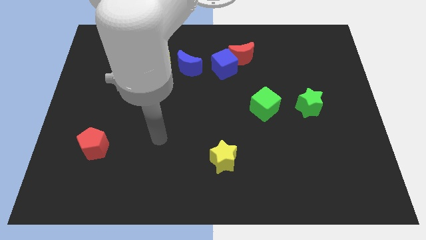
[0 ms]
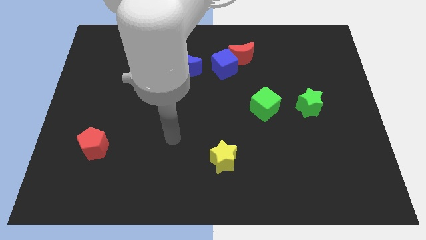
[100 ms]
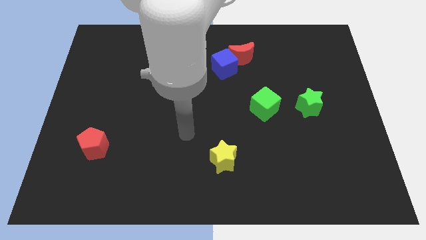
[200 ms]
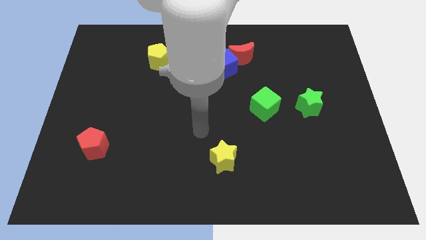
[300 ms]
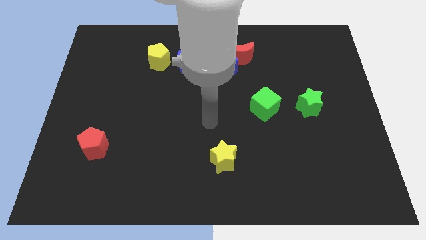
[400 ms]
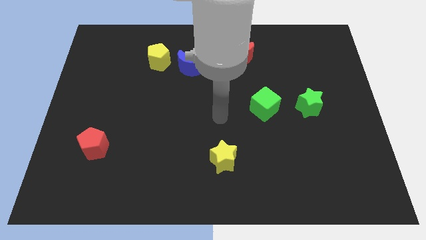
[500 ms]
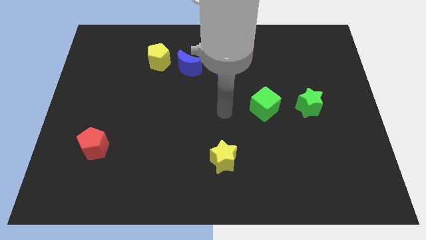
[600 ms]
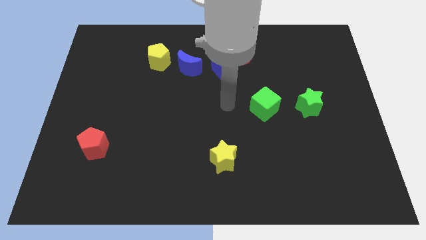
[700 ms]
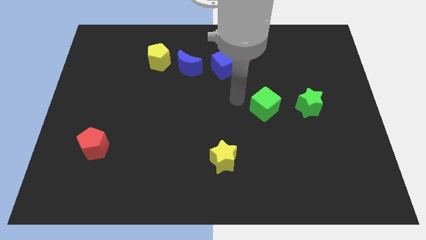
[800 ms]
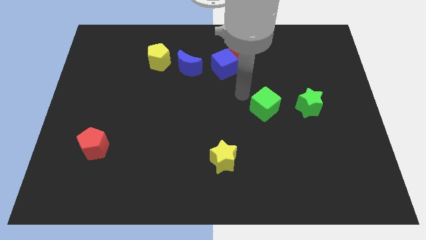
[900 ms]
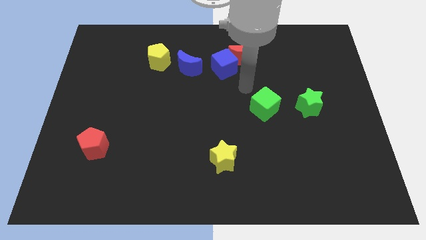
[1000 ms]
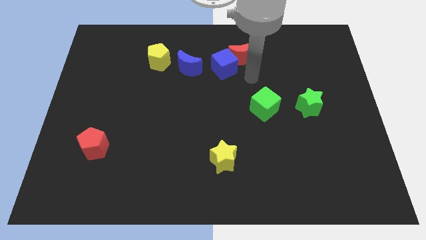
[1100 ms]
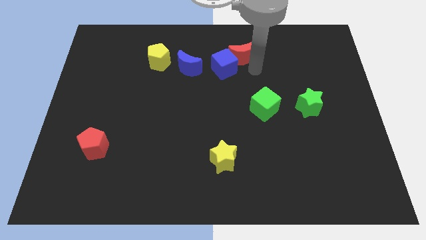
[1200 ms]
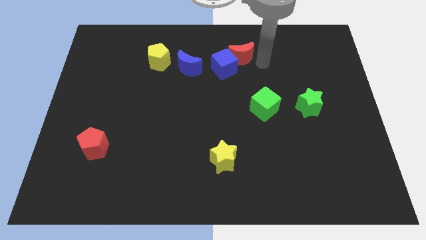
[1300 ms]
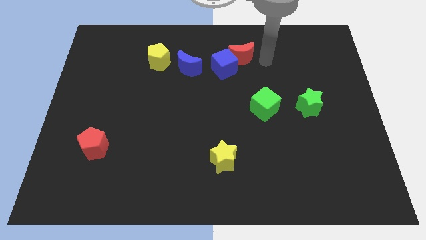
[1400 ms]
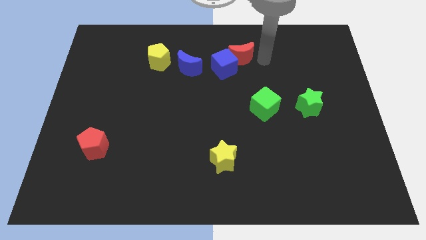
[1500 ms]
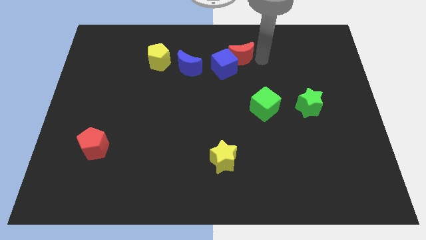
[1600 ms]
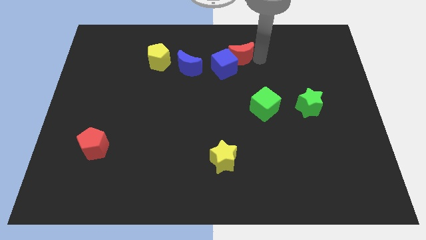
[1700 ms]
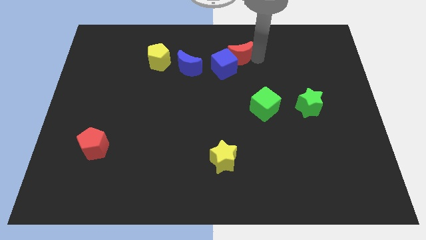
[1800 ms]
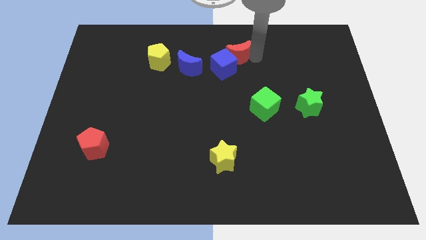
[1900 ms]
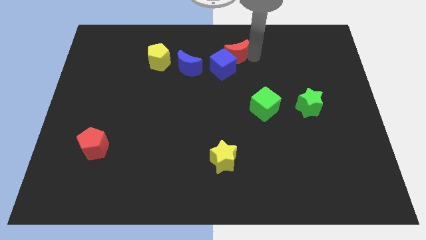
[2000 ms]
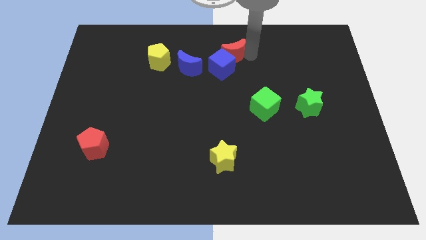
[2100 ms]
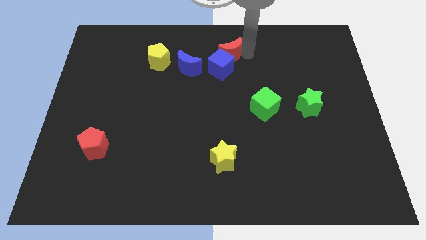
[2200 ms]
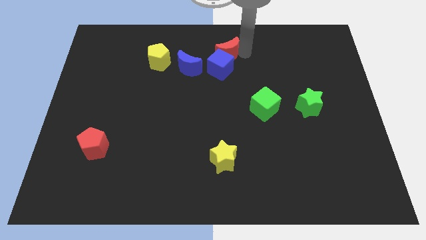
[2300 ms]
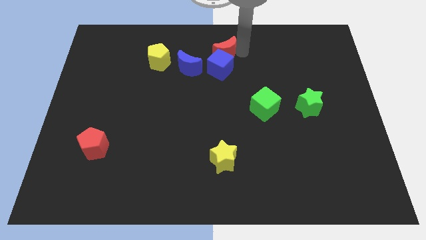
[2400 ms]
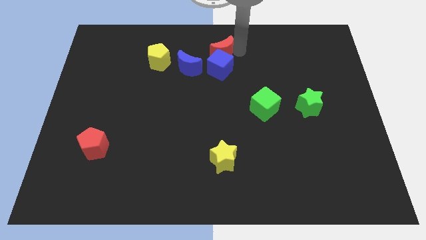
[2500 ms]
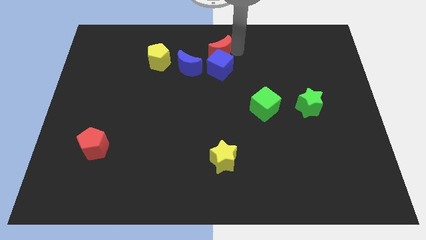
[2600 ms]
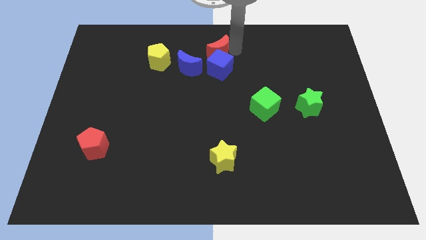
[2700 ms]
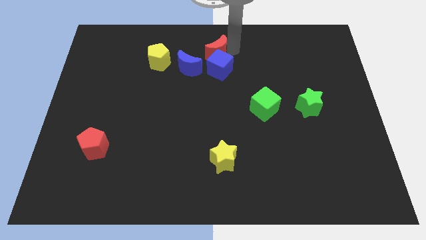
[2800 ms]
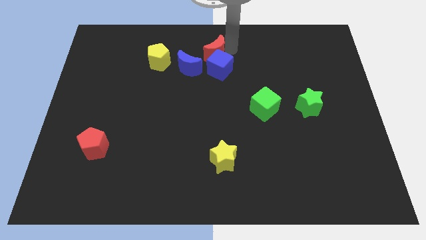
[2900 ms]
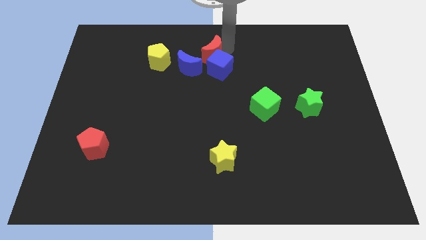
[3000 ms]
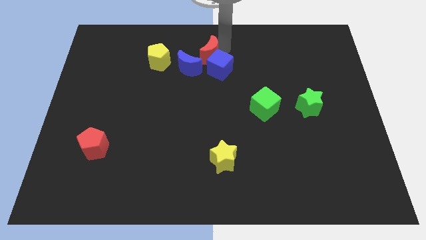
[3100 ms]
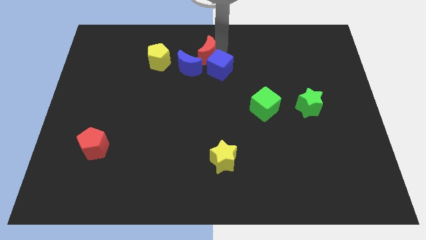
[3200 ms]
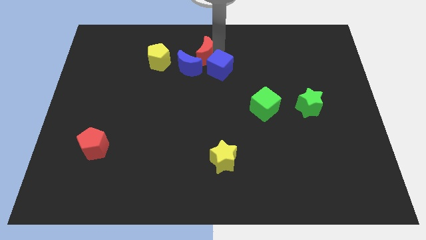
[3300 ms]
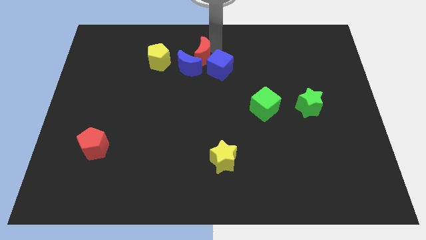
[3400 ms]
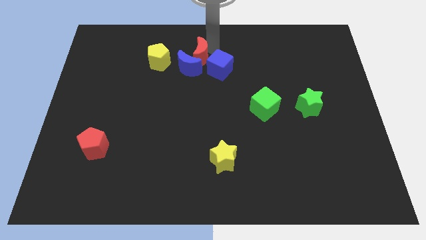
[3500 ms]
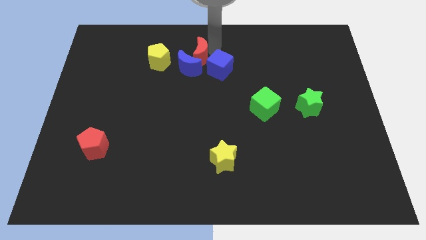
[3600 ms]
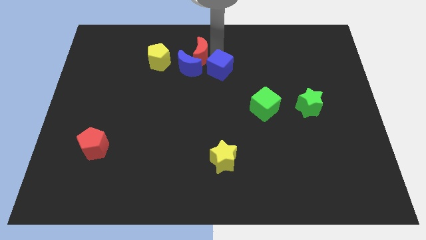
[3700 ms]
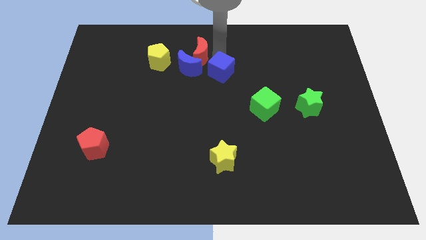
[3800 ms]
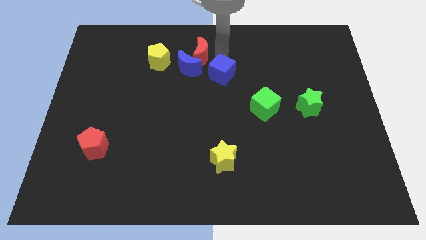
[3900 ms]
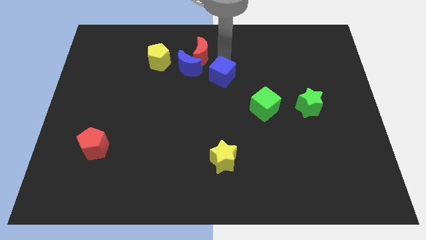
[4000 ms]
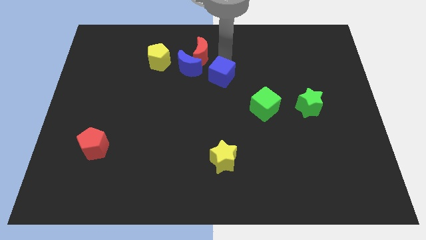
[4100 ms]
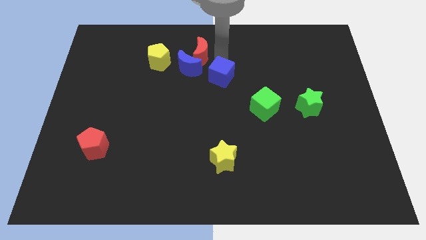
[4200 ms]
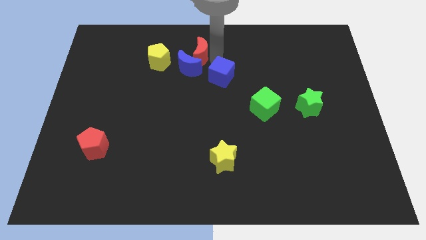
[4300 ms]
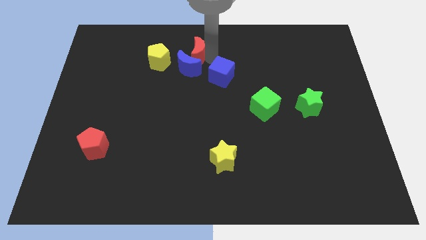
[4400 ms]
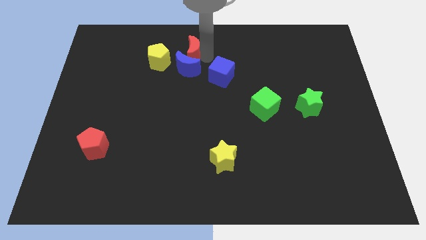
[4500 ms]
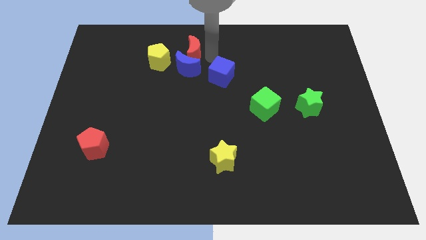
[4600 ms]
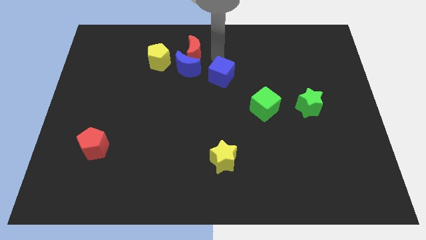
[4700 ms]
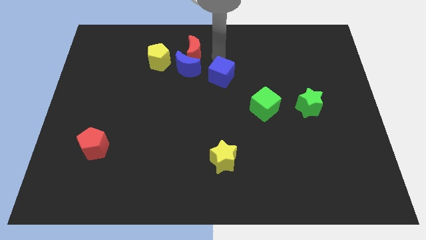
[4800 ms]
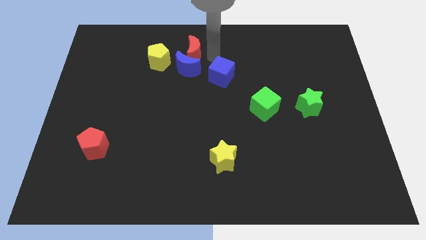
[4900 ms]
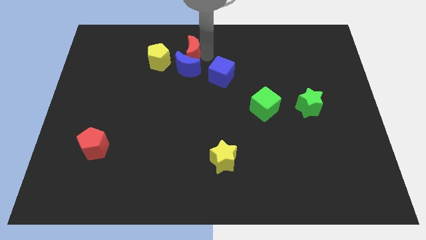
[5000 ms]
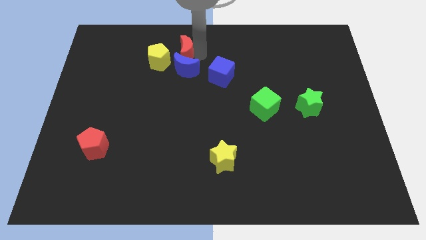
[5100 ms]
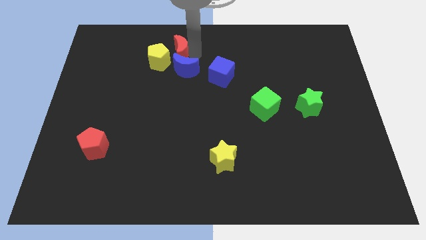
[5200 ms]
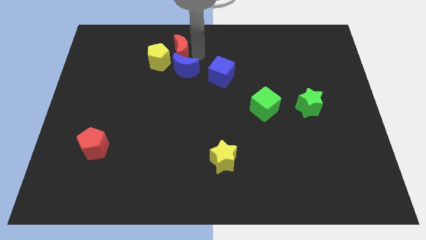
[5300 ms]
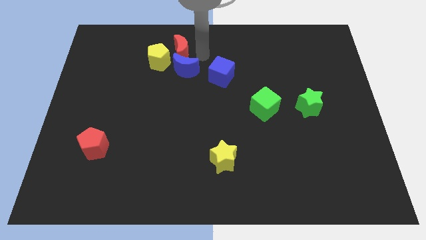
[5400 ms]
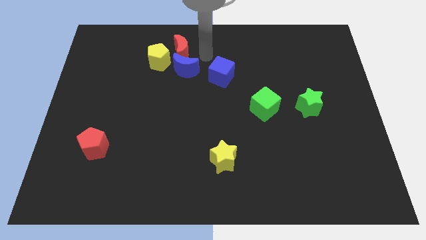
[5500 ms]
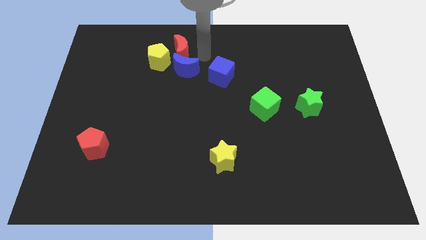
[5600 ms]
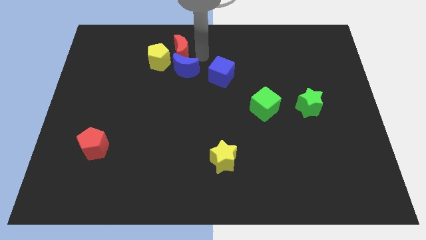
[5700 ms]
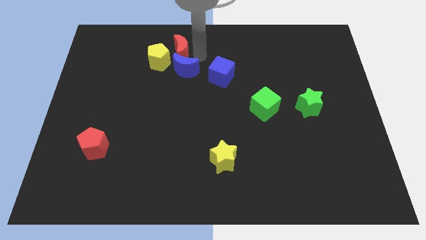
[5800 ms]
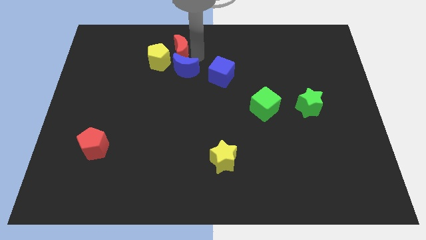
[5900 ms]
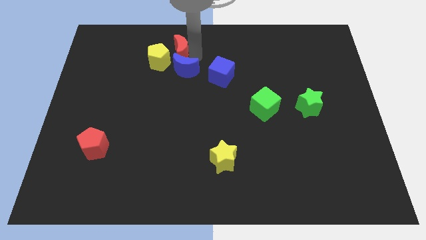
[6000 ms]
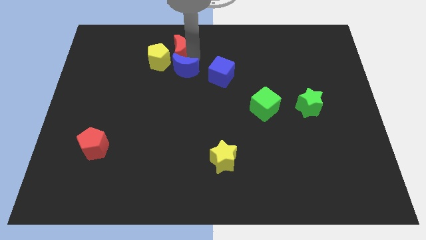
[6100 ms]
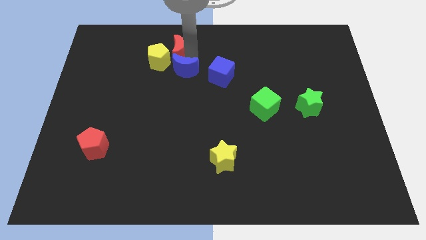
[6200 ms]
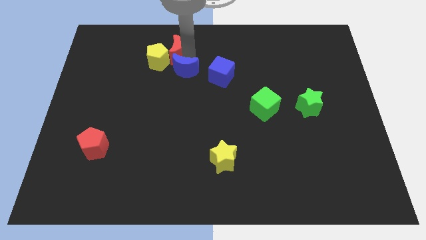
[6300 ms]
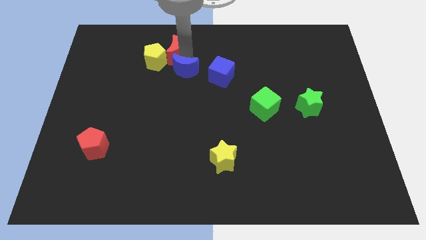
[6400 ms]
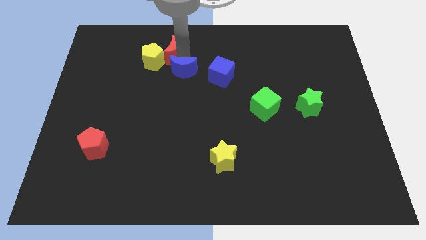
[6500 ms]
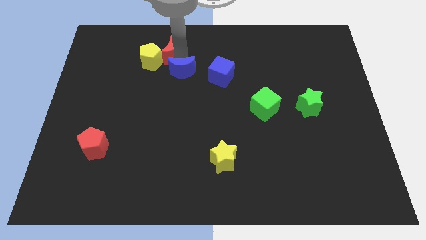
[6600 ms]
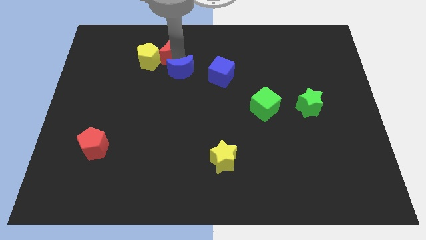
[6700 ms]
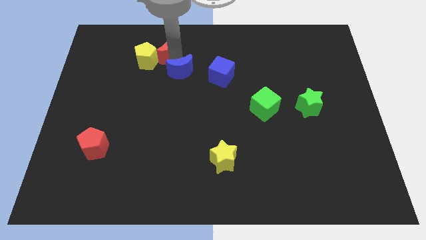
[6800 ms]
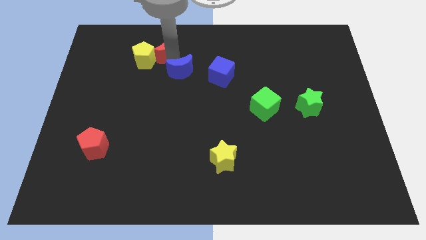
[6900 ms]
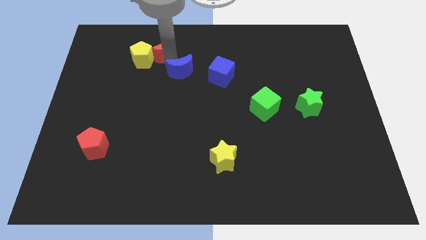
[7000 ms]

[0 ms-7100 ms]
push the red moon left

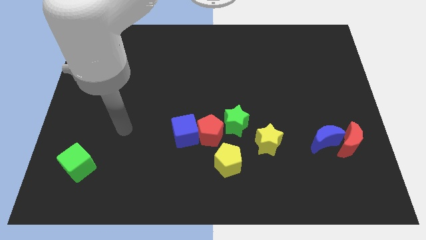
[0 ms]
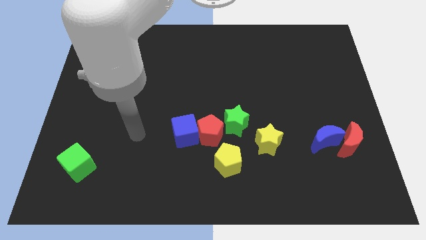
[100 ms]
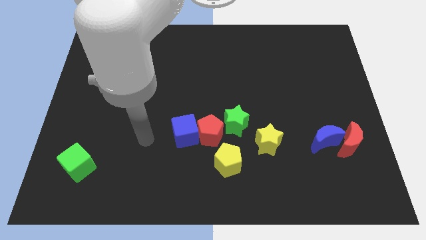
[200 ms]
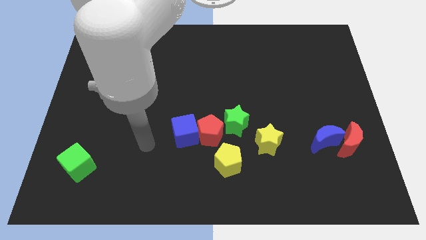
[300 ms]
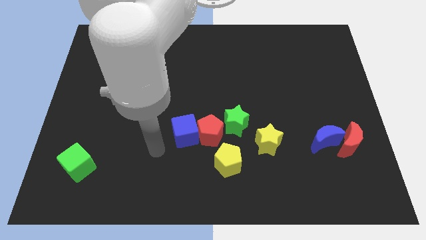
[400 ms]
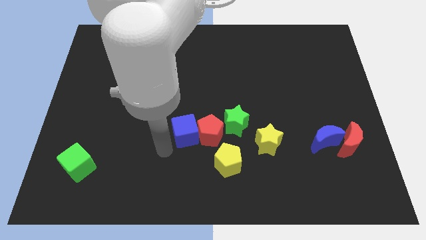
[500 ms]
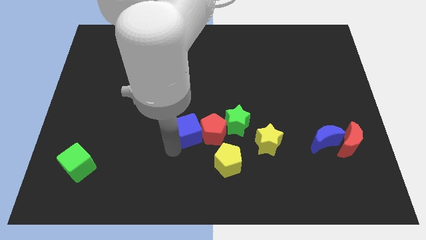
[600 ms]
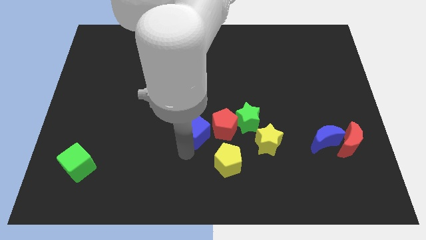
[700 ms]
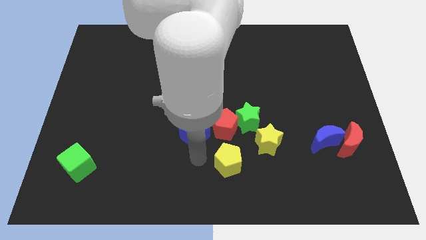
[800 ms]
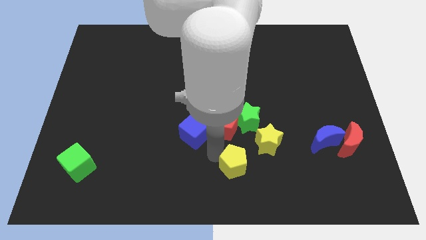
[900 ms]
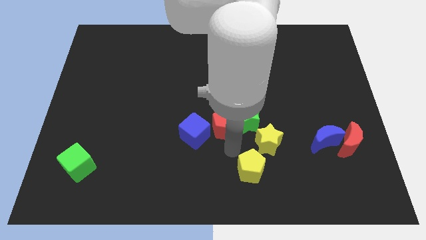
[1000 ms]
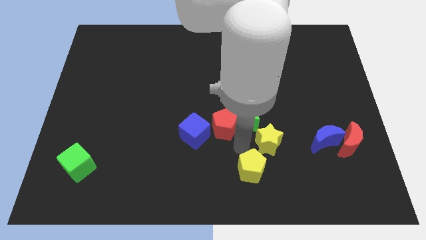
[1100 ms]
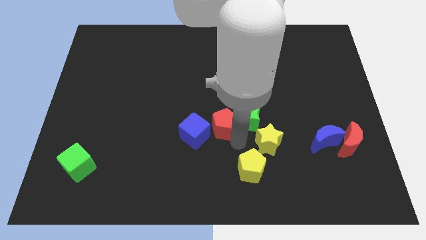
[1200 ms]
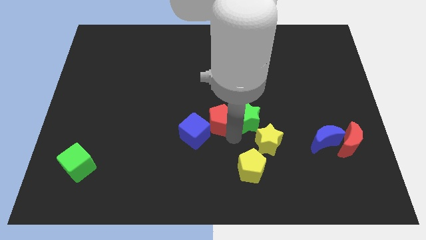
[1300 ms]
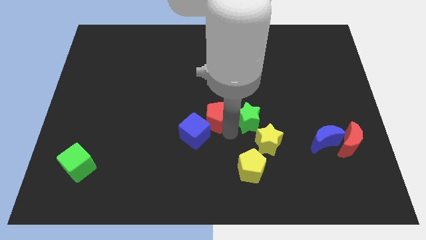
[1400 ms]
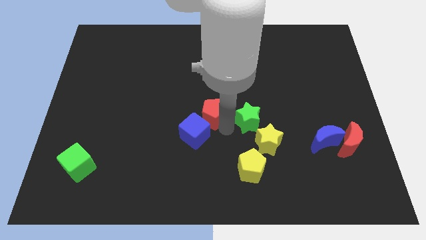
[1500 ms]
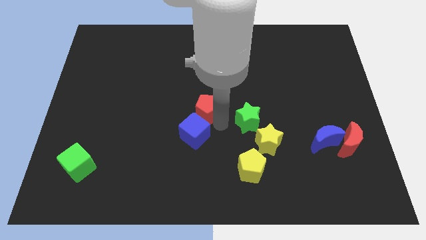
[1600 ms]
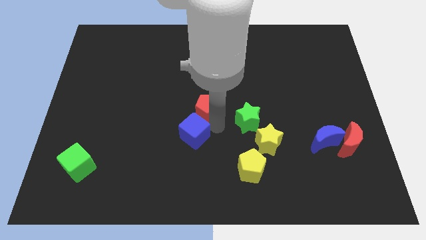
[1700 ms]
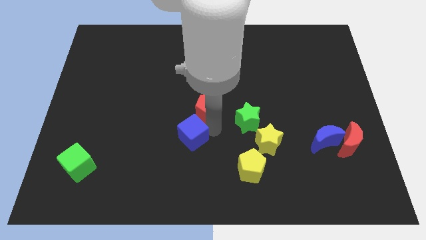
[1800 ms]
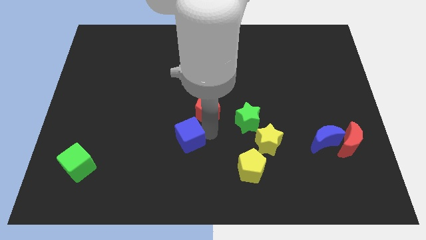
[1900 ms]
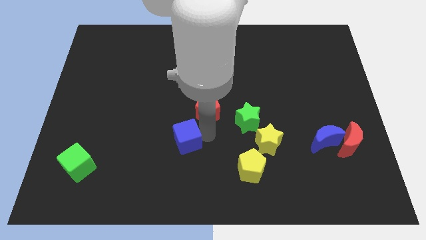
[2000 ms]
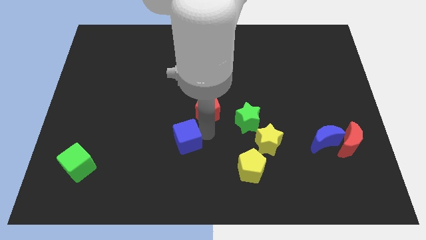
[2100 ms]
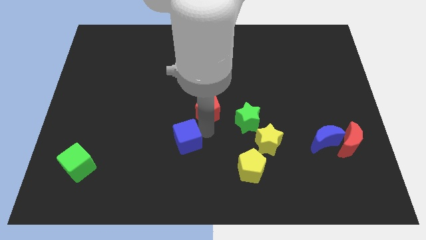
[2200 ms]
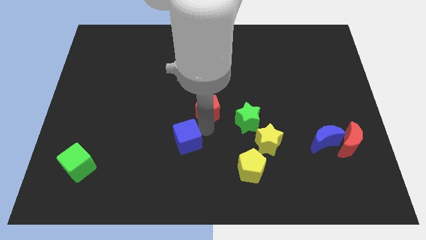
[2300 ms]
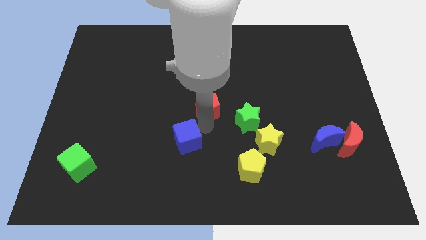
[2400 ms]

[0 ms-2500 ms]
move the red pentagon slightly up
